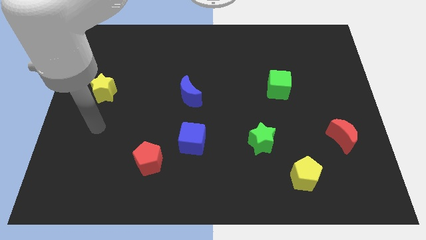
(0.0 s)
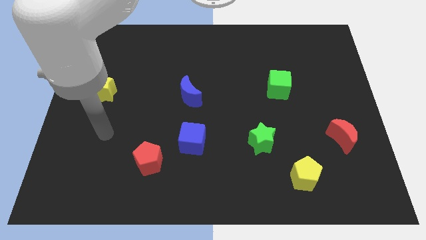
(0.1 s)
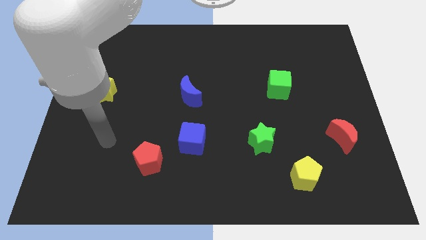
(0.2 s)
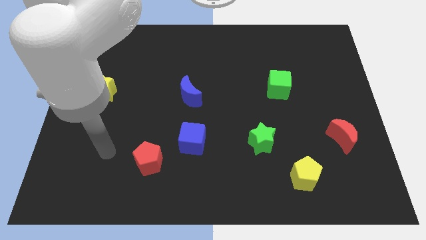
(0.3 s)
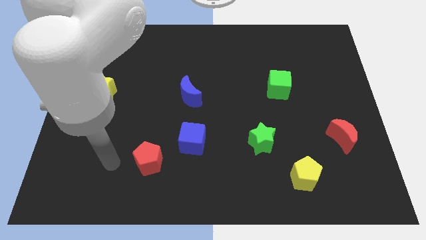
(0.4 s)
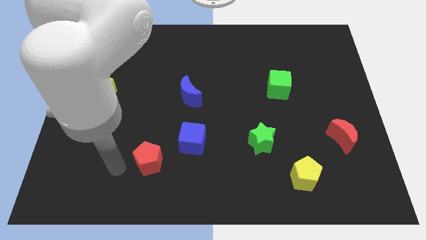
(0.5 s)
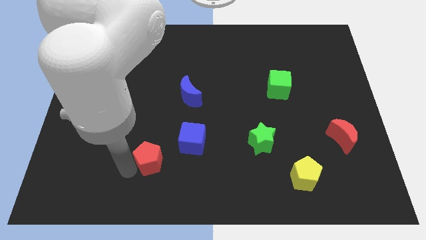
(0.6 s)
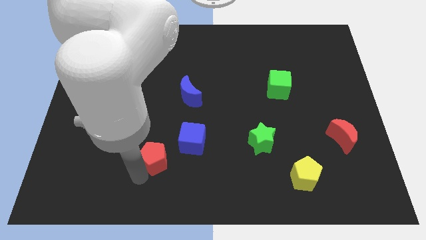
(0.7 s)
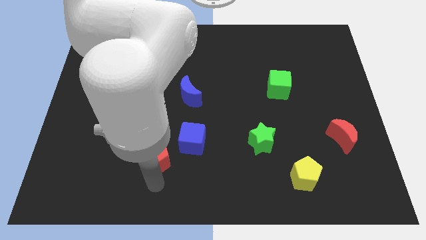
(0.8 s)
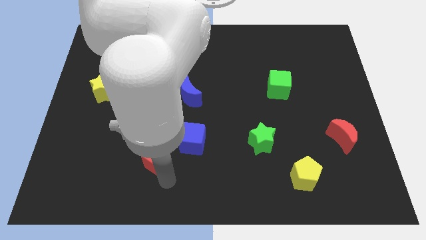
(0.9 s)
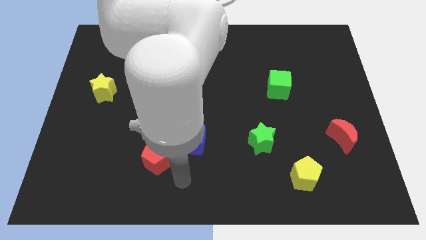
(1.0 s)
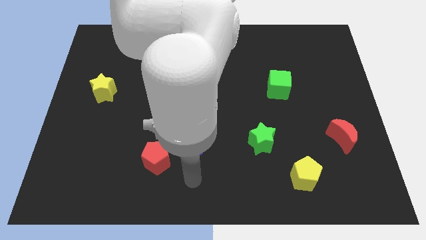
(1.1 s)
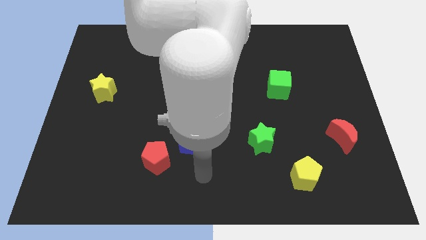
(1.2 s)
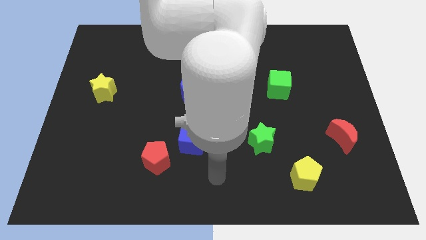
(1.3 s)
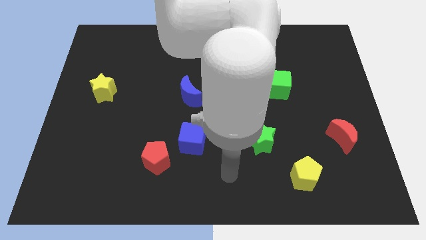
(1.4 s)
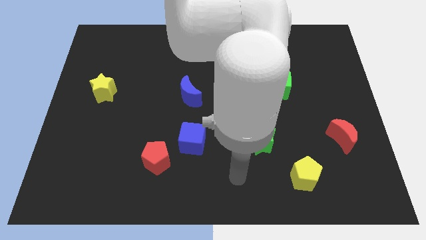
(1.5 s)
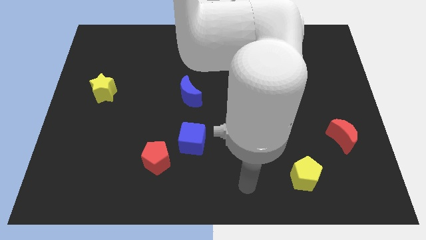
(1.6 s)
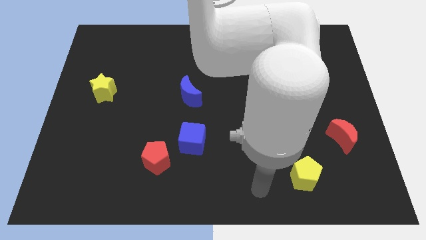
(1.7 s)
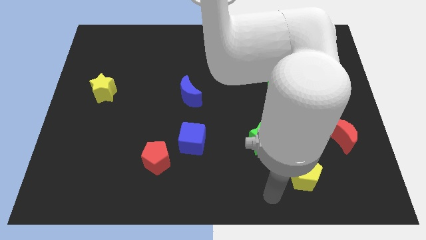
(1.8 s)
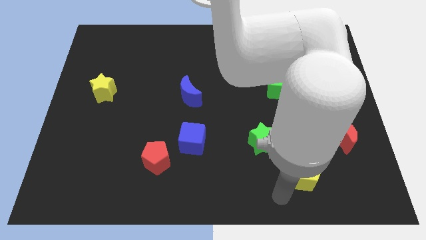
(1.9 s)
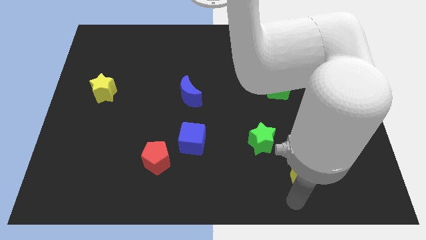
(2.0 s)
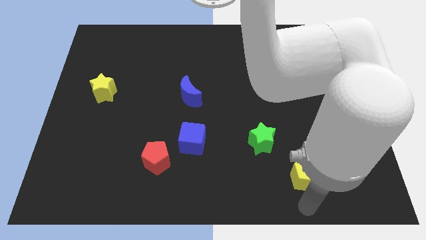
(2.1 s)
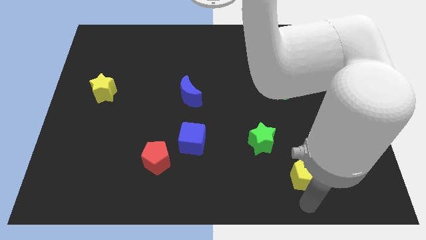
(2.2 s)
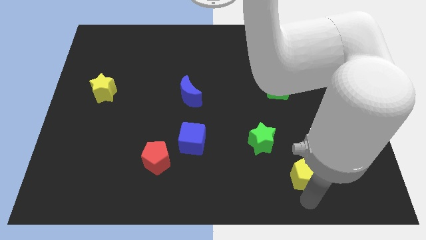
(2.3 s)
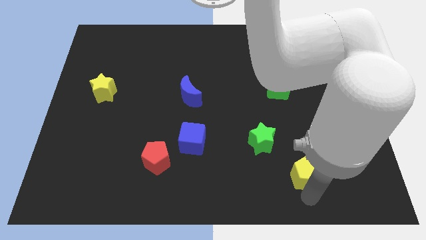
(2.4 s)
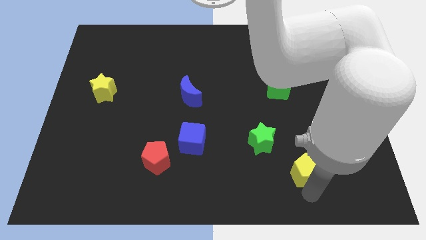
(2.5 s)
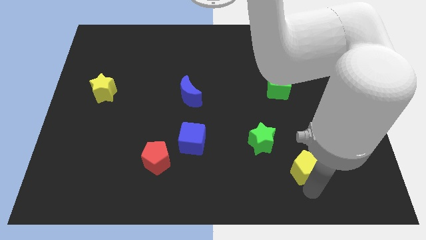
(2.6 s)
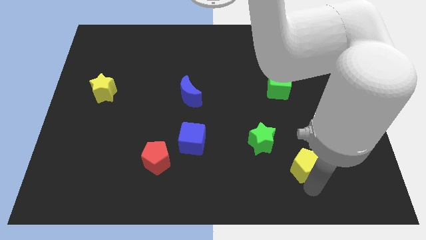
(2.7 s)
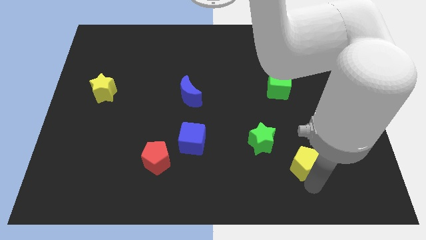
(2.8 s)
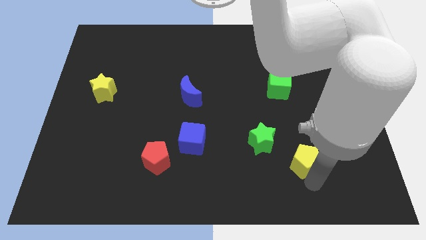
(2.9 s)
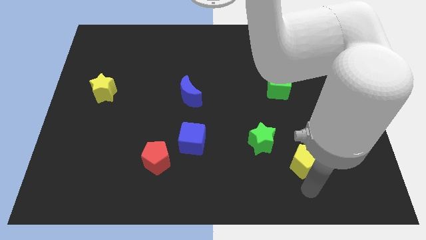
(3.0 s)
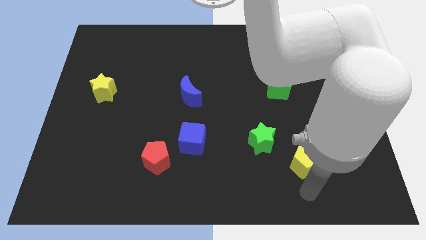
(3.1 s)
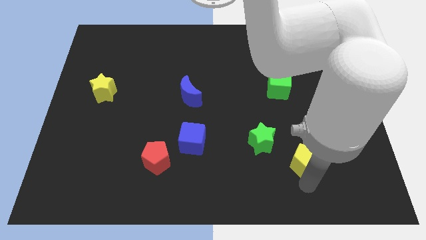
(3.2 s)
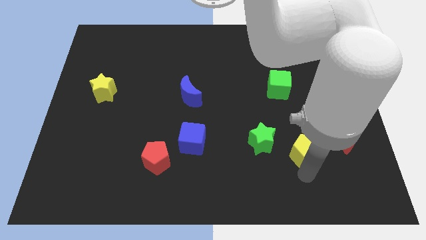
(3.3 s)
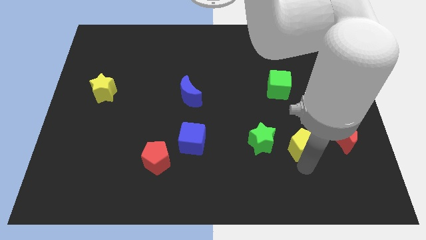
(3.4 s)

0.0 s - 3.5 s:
move the yellow pentagon up a little bit

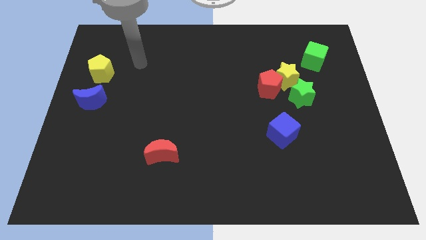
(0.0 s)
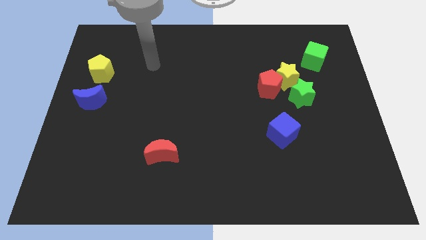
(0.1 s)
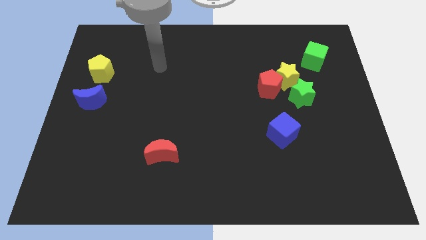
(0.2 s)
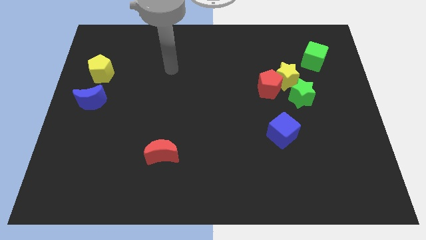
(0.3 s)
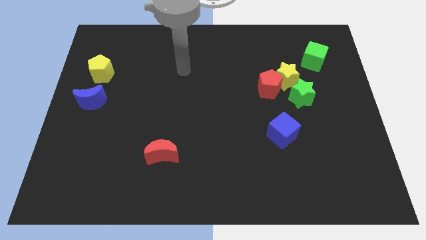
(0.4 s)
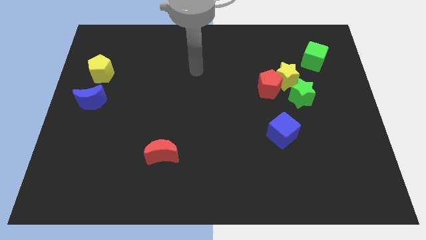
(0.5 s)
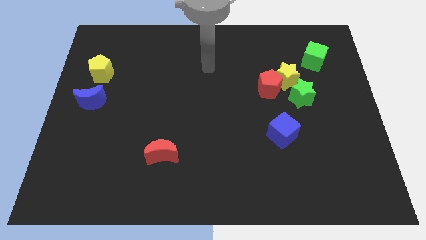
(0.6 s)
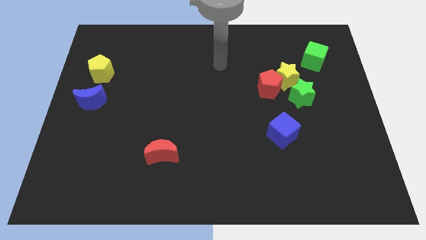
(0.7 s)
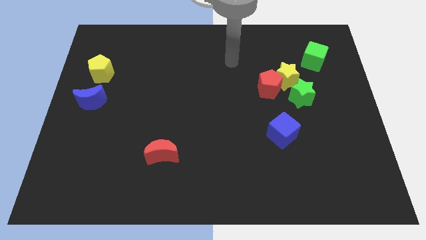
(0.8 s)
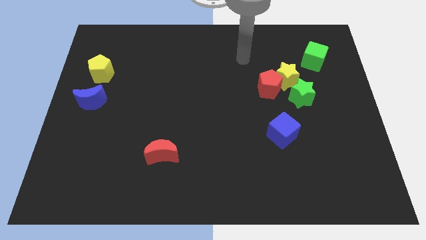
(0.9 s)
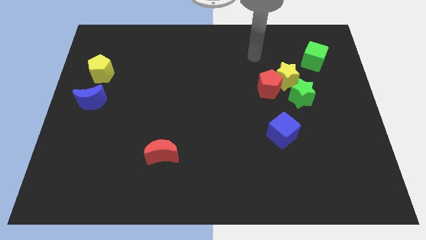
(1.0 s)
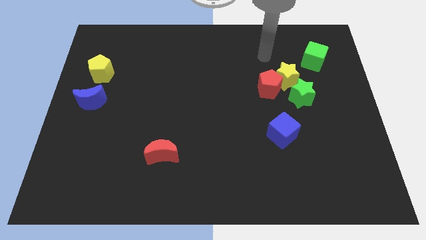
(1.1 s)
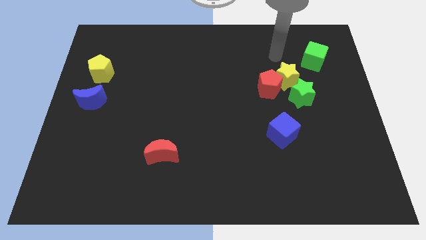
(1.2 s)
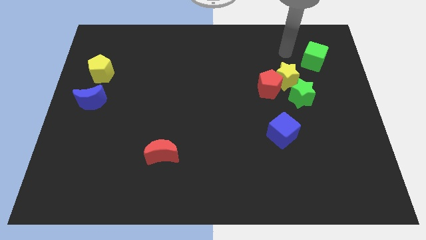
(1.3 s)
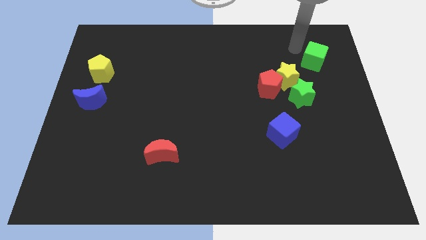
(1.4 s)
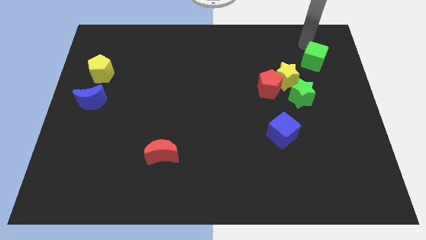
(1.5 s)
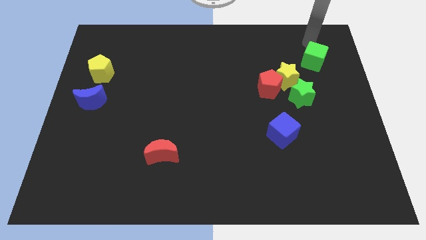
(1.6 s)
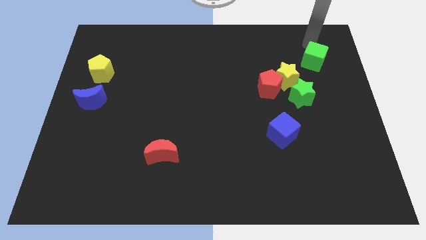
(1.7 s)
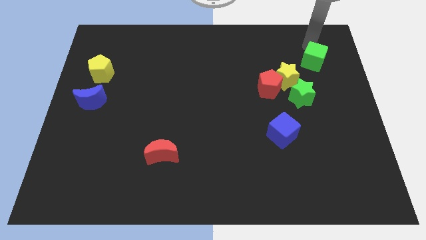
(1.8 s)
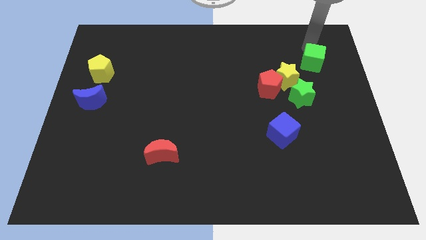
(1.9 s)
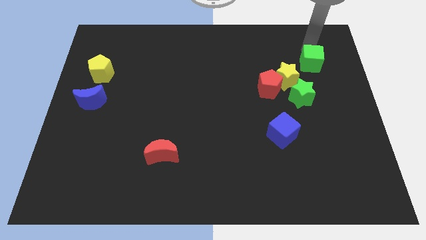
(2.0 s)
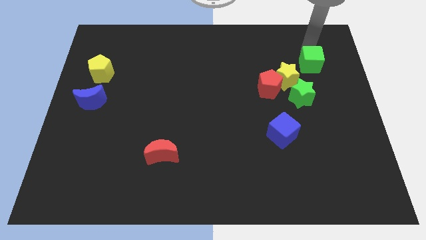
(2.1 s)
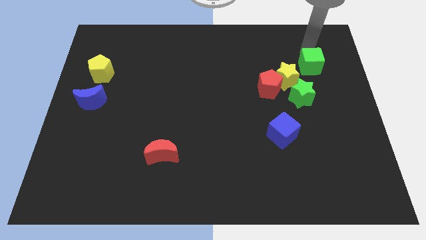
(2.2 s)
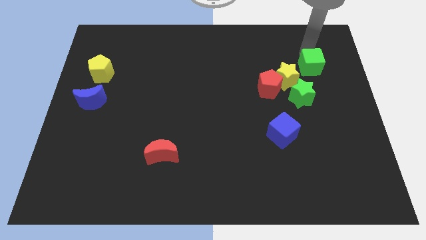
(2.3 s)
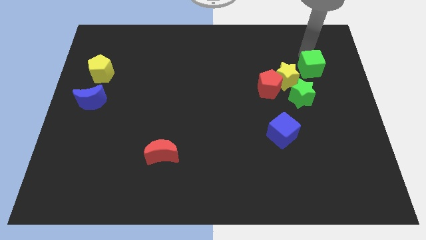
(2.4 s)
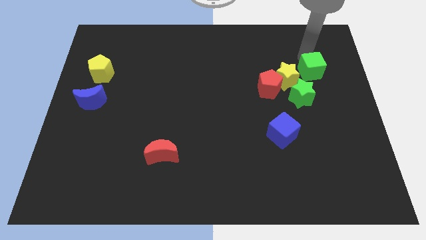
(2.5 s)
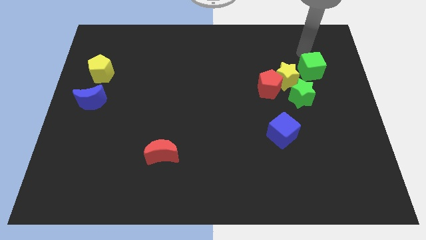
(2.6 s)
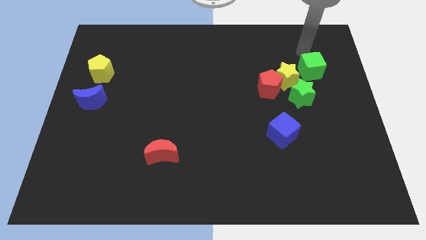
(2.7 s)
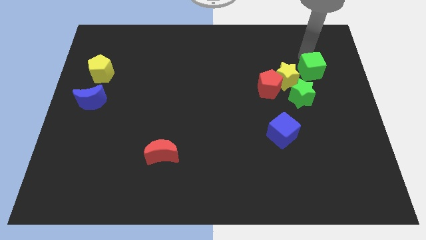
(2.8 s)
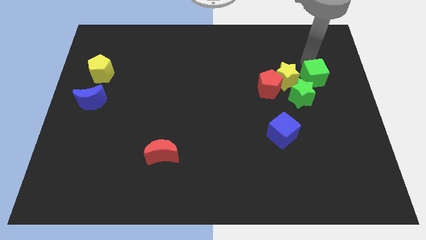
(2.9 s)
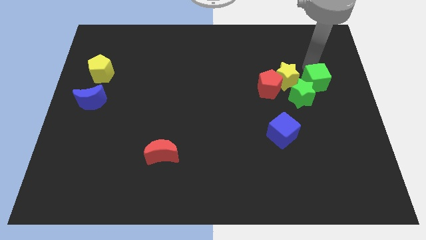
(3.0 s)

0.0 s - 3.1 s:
slide the green cube down a bit

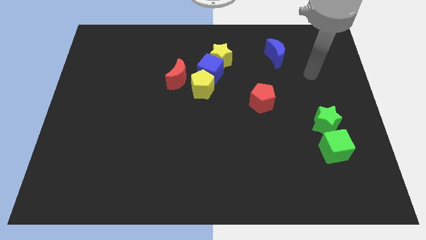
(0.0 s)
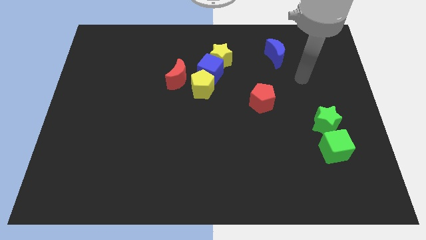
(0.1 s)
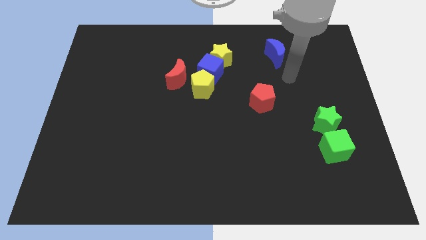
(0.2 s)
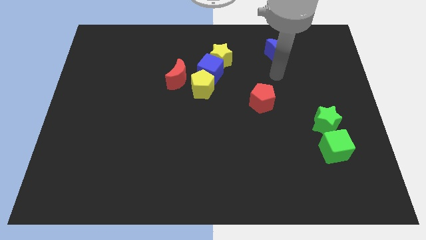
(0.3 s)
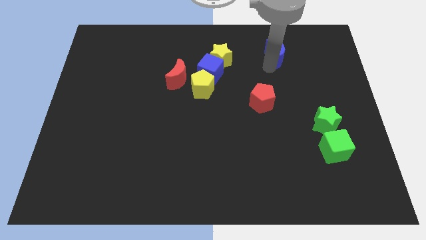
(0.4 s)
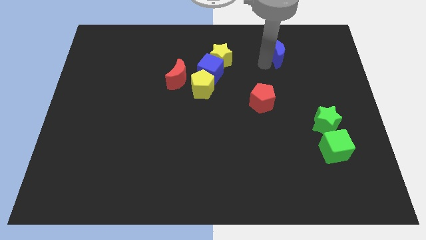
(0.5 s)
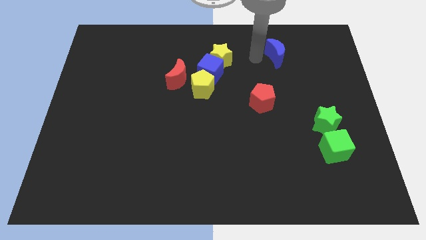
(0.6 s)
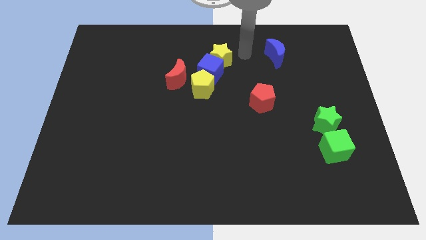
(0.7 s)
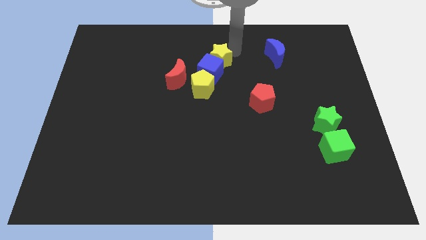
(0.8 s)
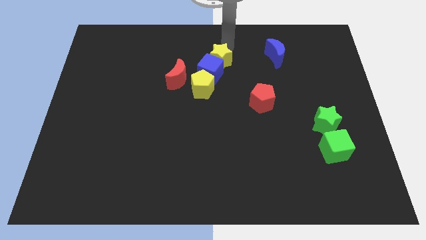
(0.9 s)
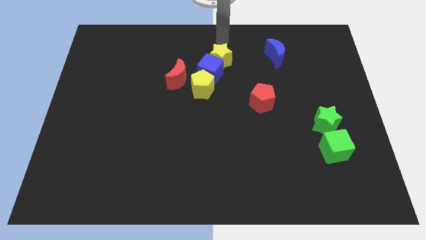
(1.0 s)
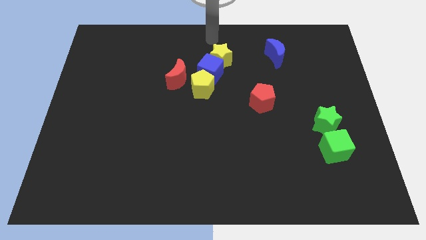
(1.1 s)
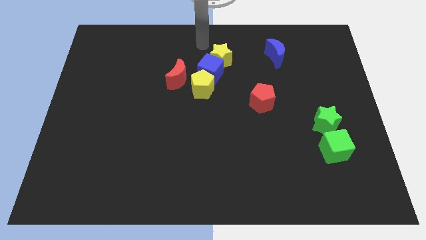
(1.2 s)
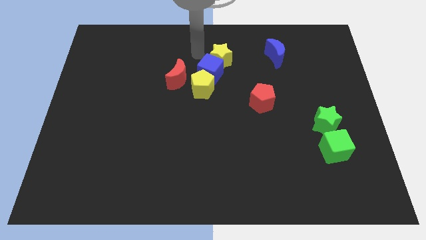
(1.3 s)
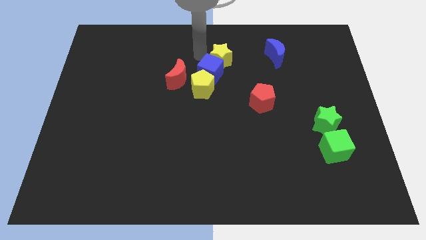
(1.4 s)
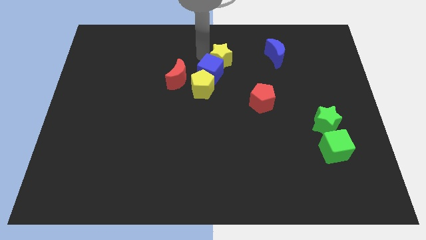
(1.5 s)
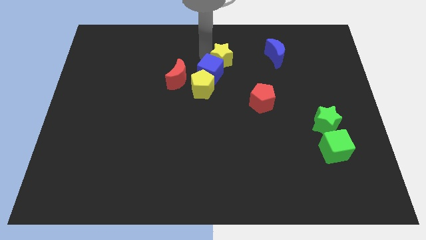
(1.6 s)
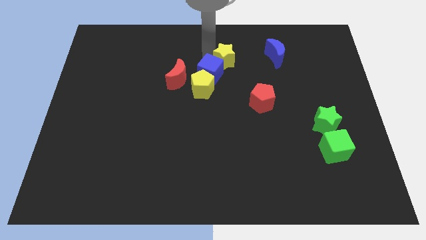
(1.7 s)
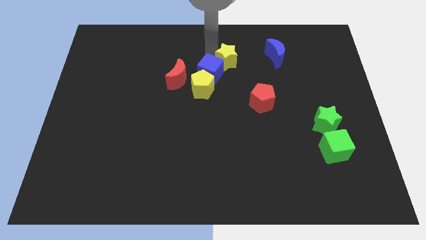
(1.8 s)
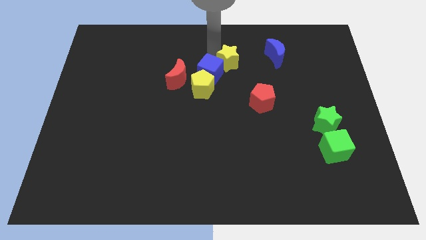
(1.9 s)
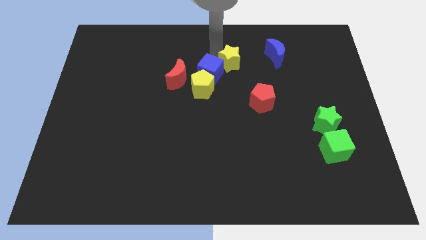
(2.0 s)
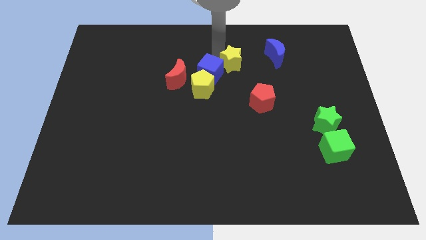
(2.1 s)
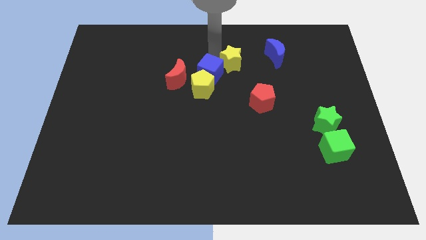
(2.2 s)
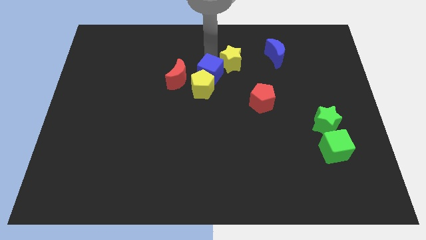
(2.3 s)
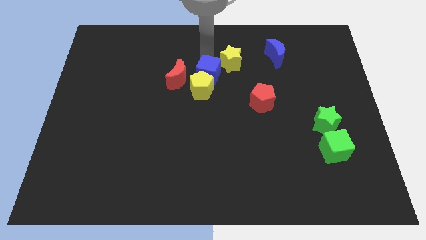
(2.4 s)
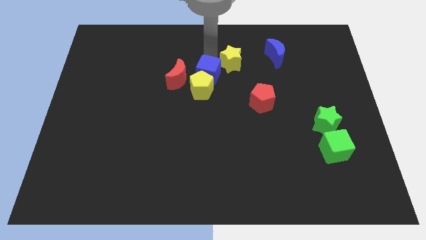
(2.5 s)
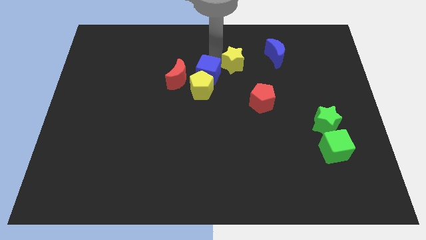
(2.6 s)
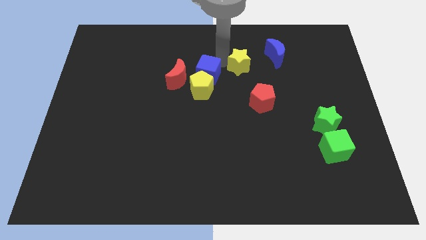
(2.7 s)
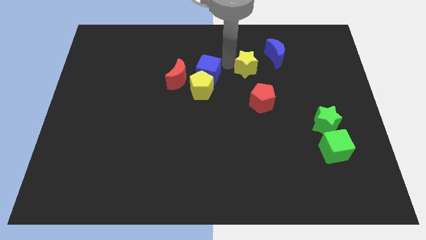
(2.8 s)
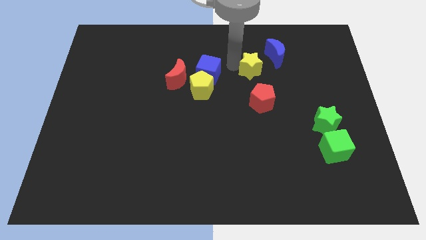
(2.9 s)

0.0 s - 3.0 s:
slightly move the yellow star to the right
